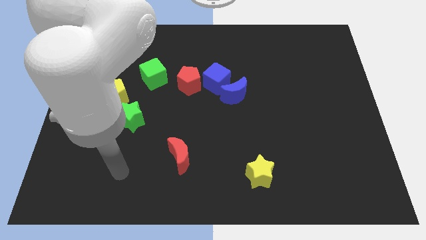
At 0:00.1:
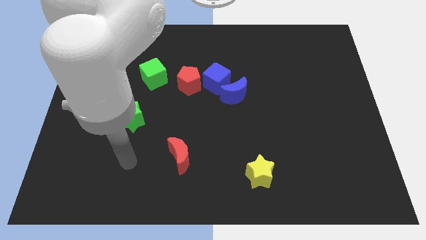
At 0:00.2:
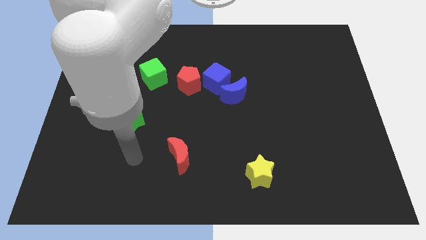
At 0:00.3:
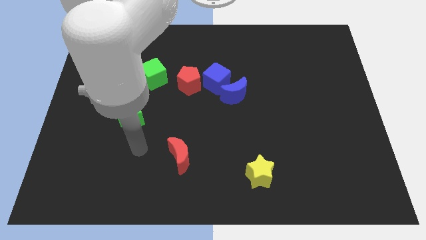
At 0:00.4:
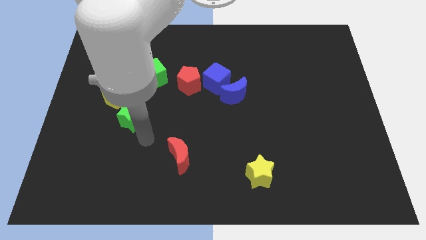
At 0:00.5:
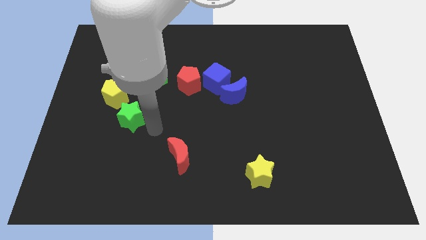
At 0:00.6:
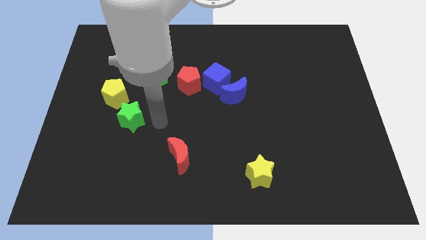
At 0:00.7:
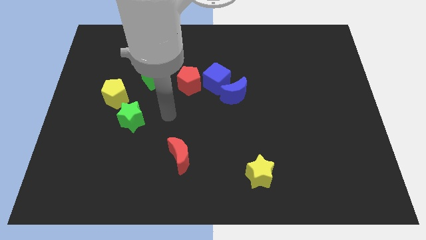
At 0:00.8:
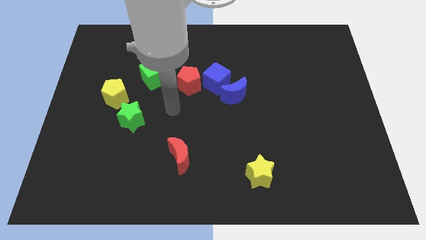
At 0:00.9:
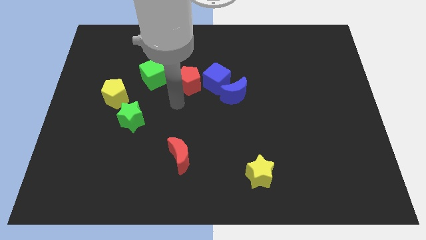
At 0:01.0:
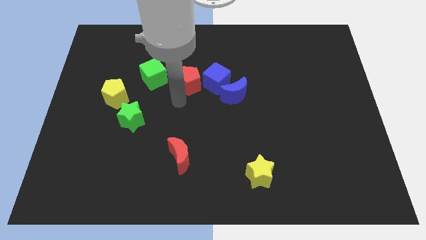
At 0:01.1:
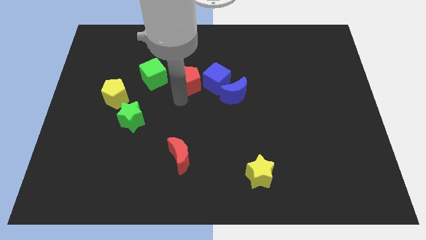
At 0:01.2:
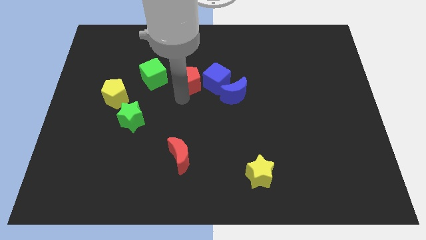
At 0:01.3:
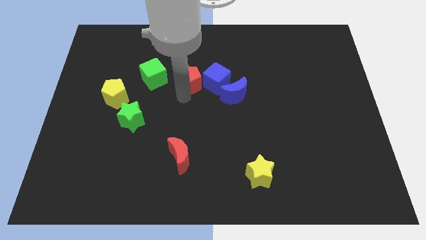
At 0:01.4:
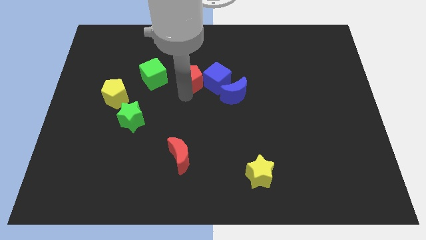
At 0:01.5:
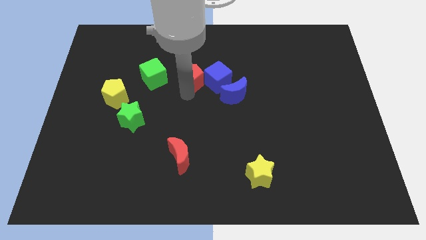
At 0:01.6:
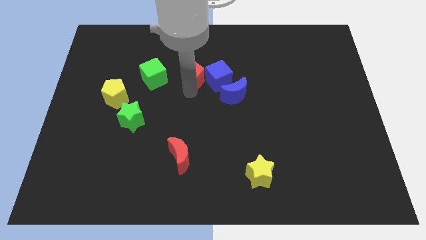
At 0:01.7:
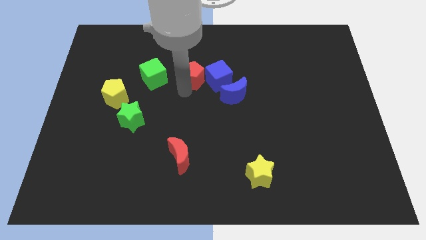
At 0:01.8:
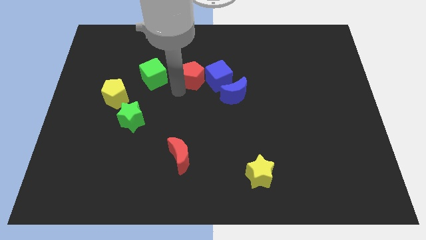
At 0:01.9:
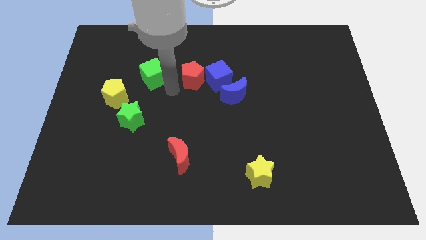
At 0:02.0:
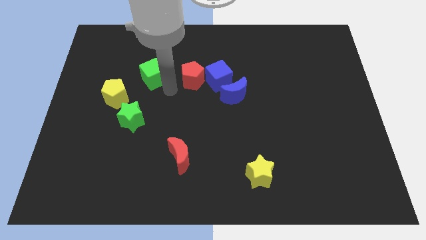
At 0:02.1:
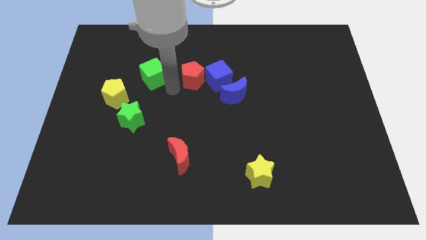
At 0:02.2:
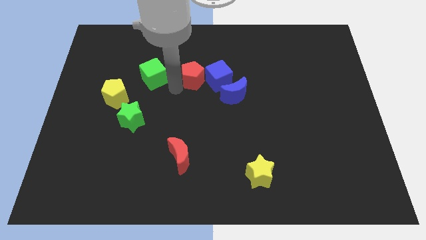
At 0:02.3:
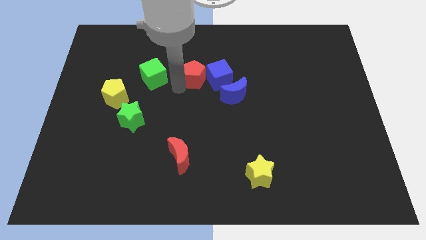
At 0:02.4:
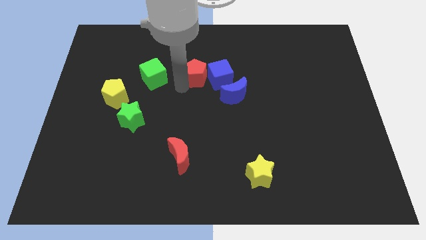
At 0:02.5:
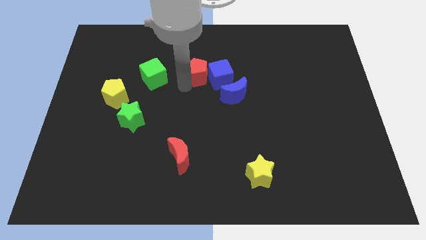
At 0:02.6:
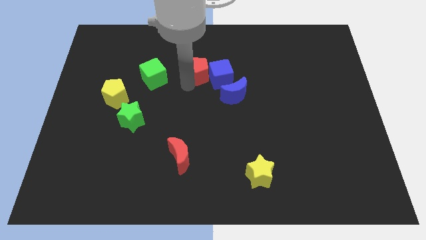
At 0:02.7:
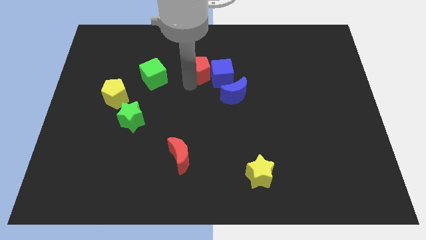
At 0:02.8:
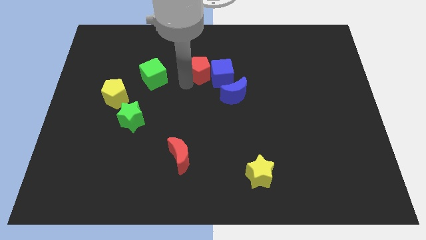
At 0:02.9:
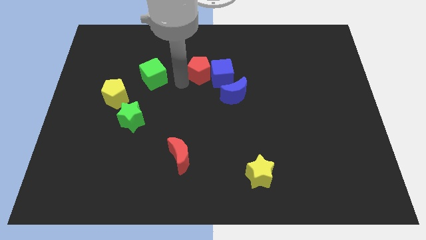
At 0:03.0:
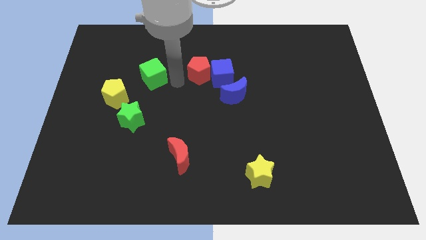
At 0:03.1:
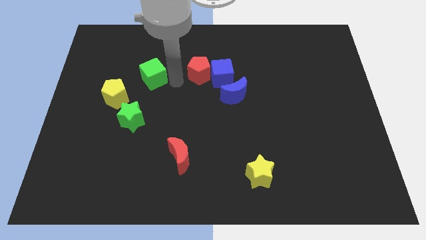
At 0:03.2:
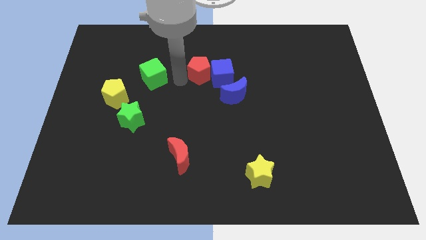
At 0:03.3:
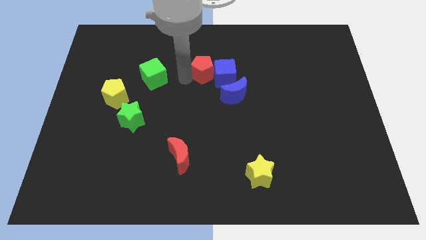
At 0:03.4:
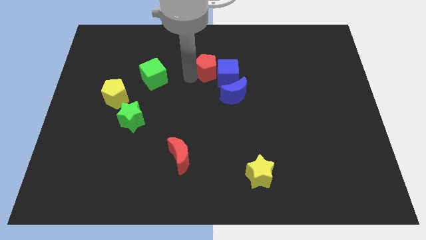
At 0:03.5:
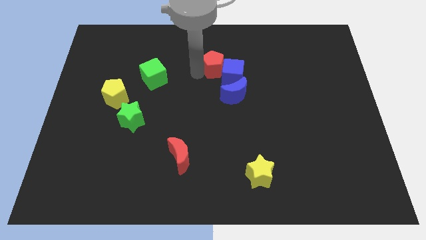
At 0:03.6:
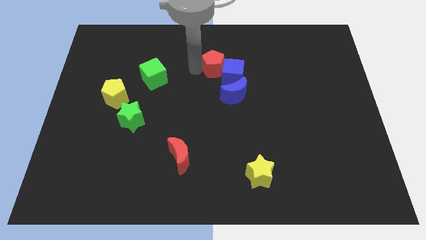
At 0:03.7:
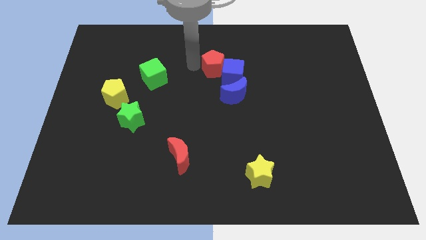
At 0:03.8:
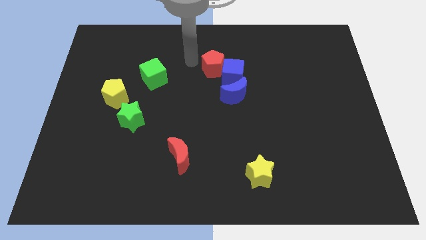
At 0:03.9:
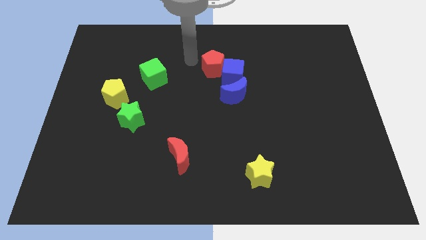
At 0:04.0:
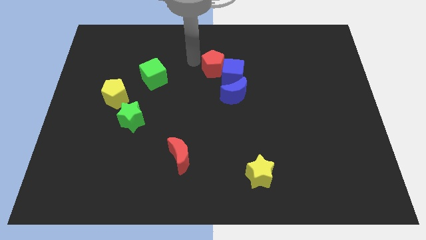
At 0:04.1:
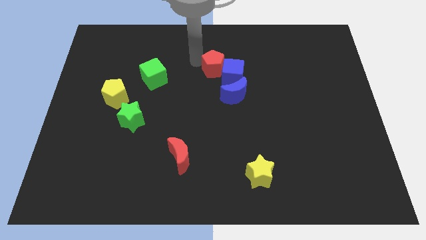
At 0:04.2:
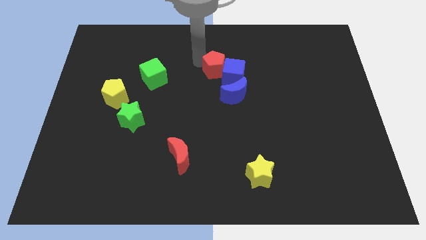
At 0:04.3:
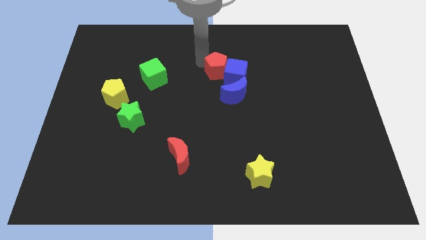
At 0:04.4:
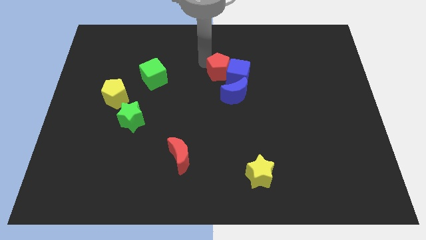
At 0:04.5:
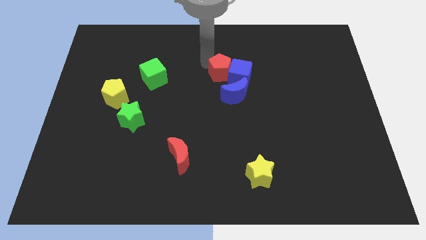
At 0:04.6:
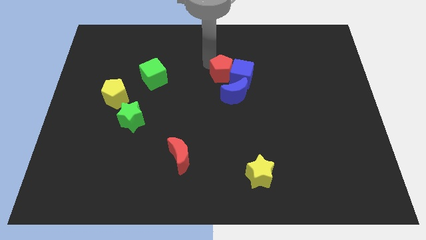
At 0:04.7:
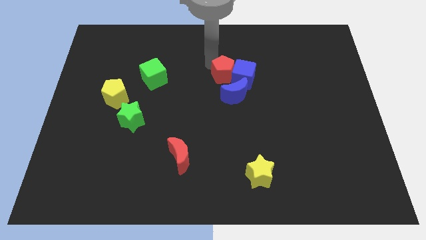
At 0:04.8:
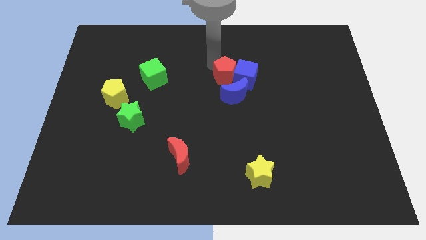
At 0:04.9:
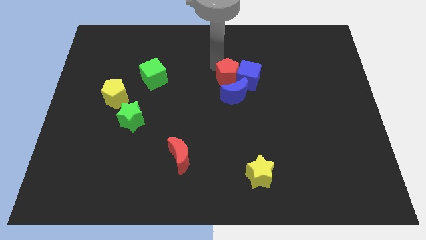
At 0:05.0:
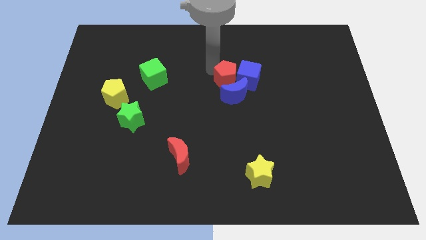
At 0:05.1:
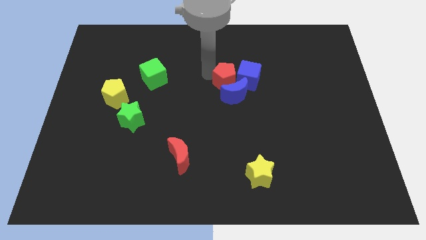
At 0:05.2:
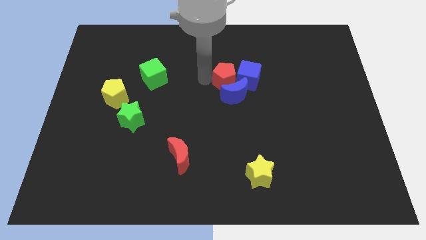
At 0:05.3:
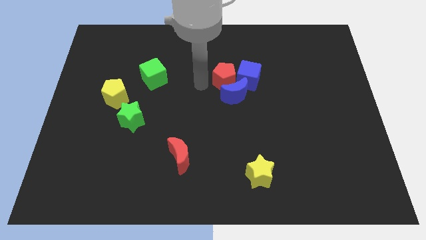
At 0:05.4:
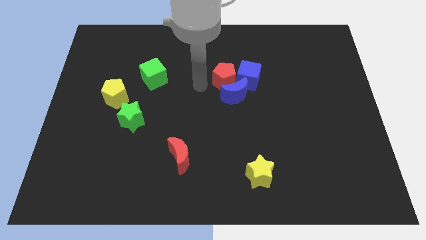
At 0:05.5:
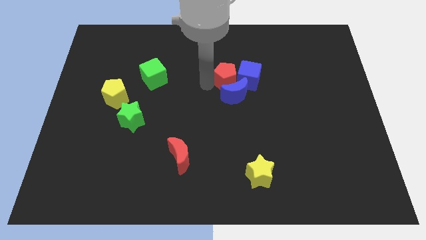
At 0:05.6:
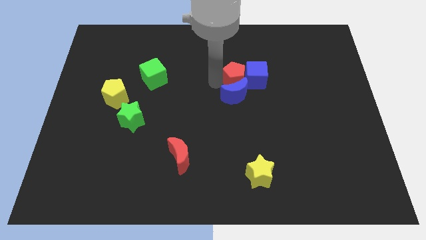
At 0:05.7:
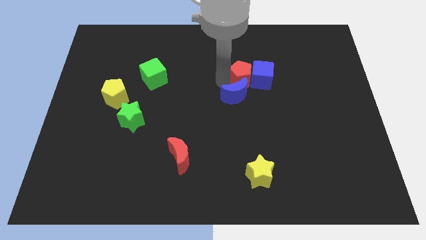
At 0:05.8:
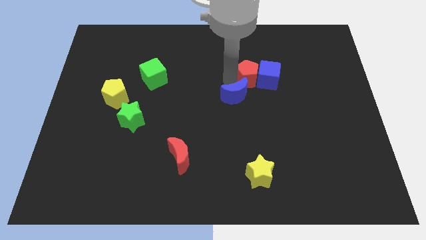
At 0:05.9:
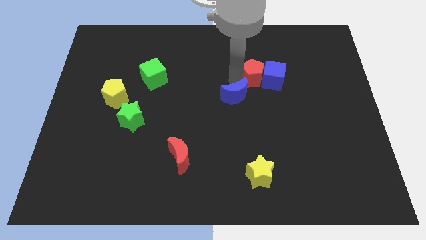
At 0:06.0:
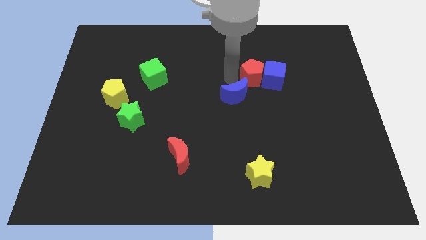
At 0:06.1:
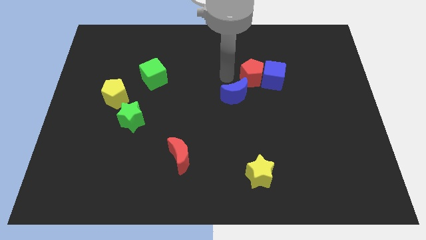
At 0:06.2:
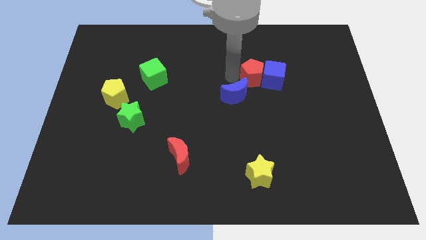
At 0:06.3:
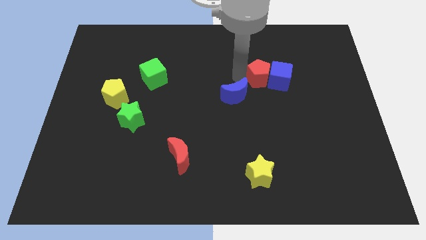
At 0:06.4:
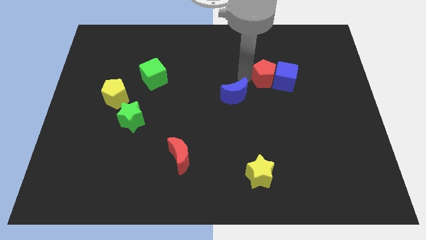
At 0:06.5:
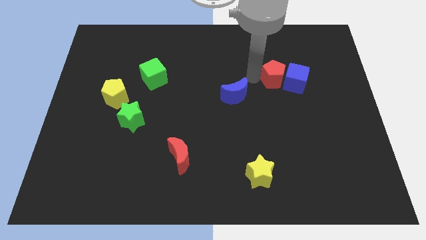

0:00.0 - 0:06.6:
slide the red pentagon to the right

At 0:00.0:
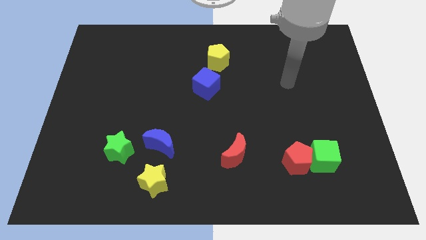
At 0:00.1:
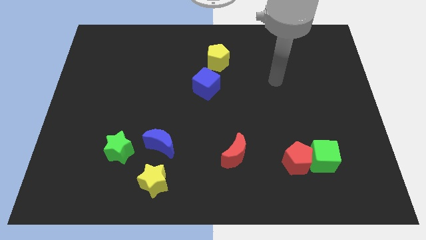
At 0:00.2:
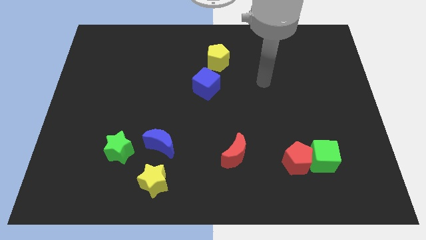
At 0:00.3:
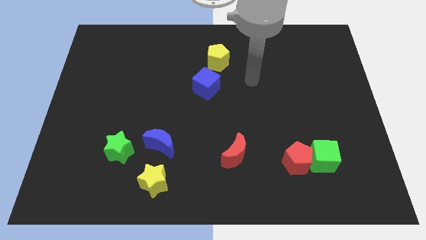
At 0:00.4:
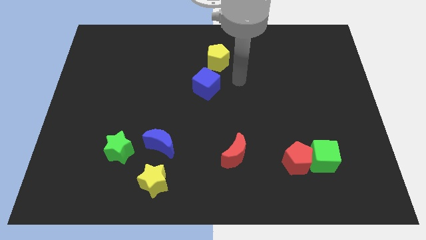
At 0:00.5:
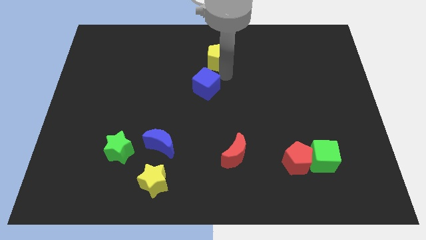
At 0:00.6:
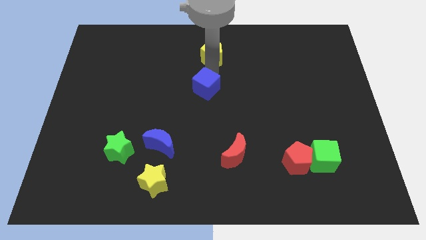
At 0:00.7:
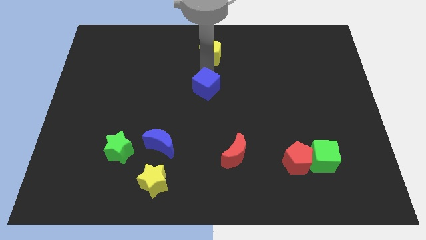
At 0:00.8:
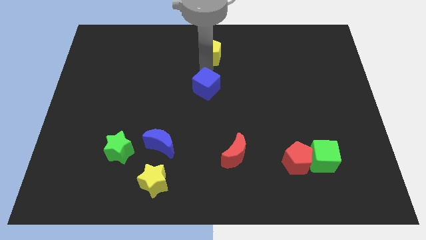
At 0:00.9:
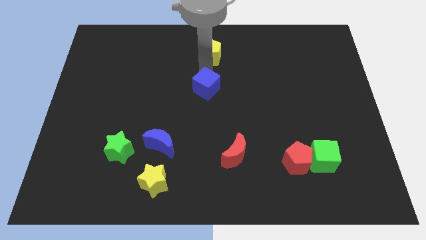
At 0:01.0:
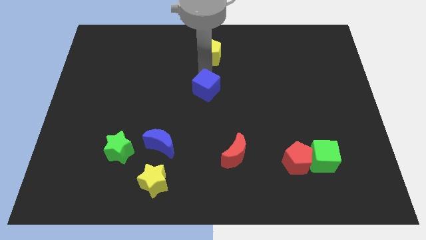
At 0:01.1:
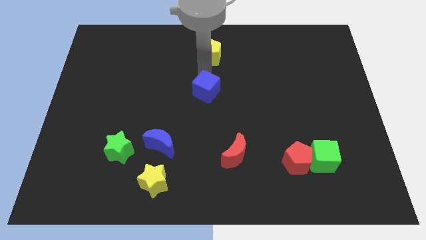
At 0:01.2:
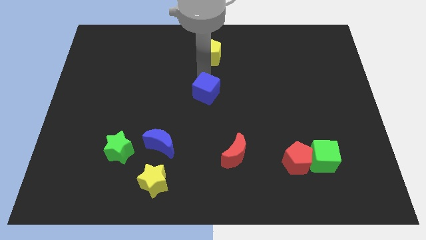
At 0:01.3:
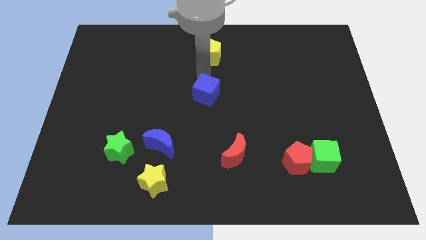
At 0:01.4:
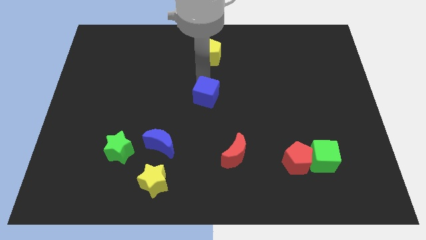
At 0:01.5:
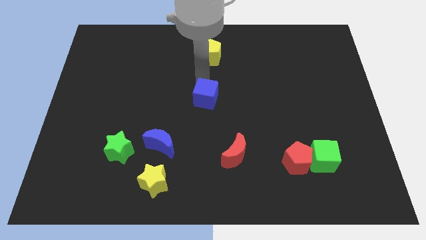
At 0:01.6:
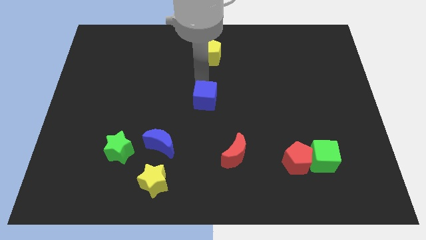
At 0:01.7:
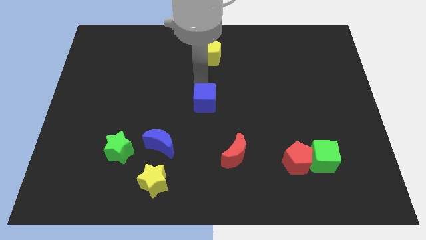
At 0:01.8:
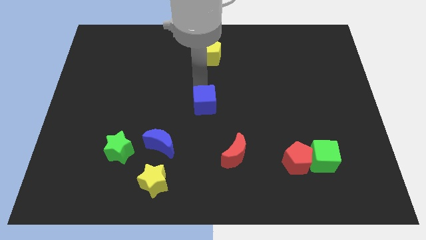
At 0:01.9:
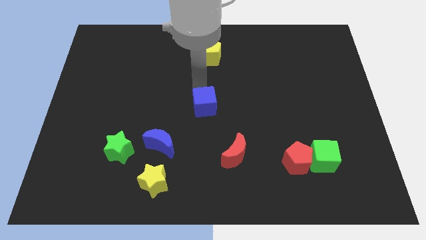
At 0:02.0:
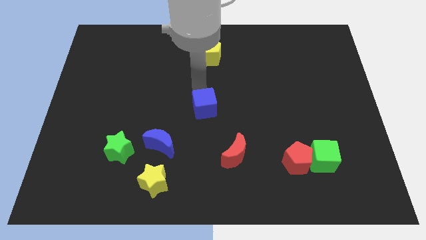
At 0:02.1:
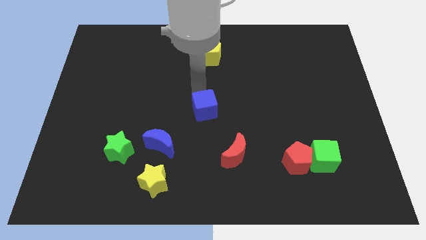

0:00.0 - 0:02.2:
slightly slide the blue cube down
